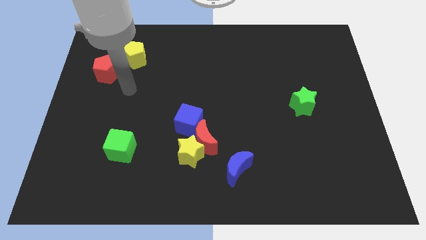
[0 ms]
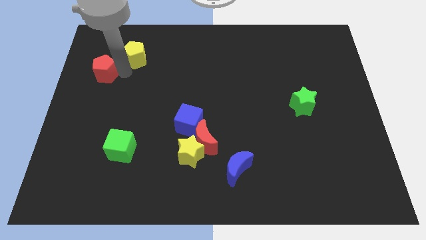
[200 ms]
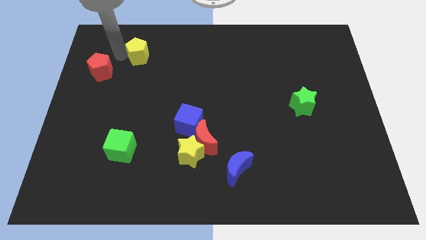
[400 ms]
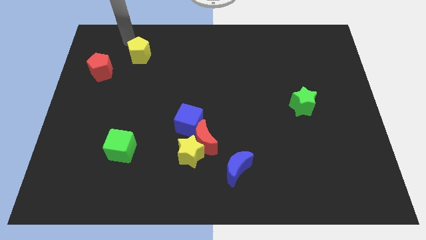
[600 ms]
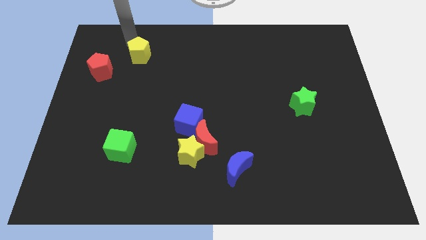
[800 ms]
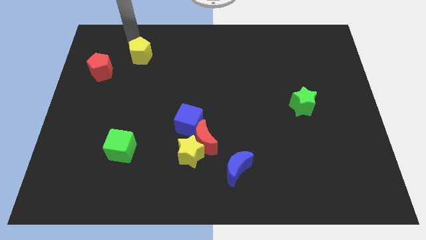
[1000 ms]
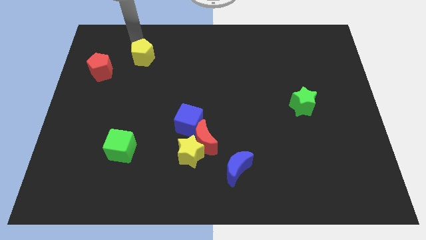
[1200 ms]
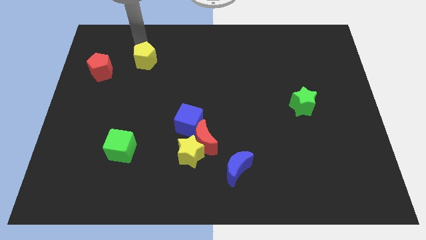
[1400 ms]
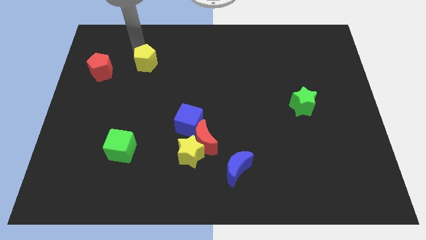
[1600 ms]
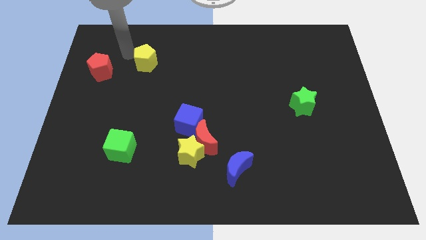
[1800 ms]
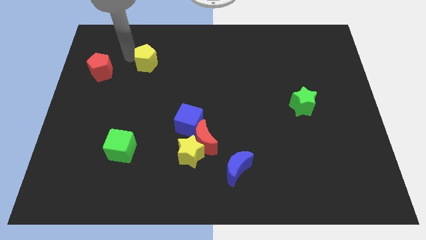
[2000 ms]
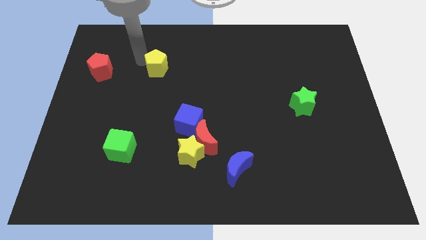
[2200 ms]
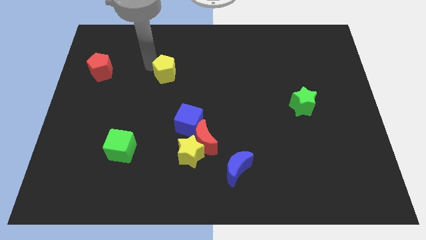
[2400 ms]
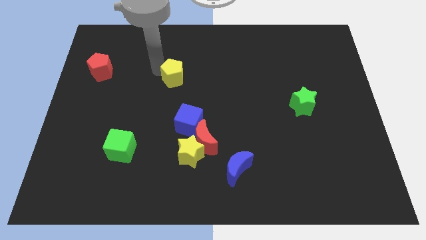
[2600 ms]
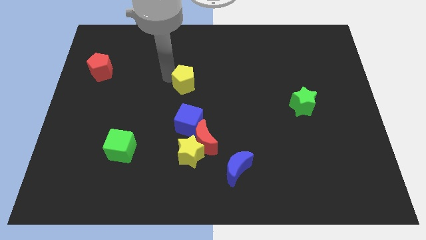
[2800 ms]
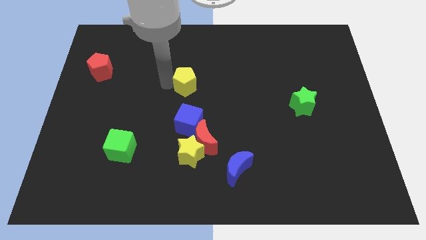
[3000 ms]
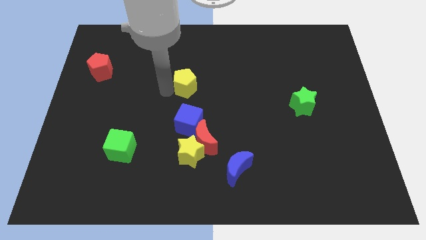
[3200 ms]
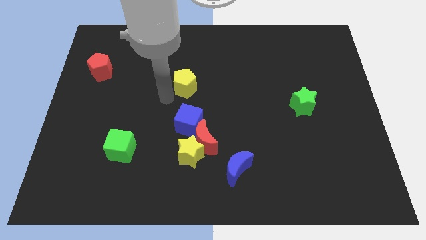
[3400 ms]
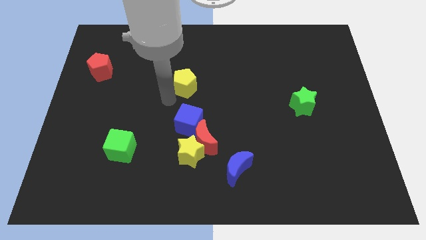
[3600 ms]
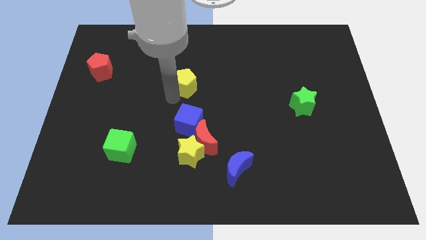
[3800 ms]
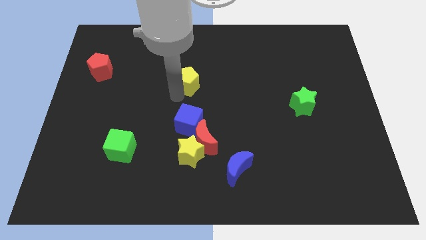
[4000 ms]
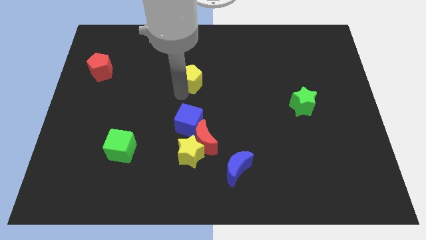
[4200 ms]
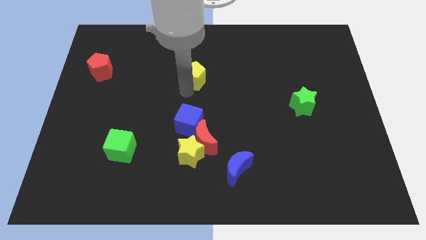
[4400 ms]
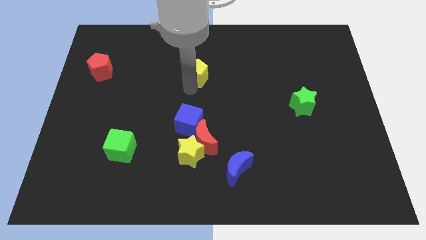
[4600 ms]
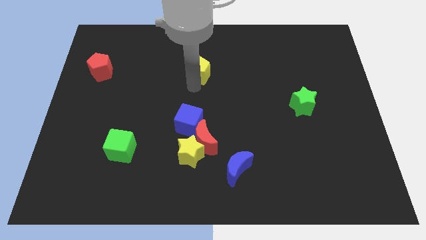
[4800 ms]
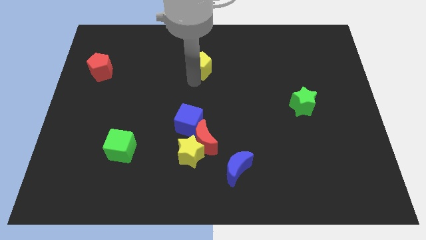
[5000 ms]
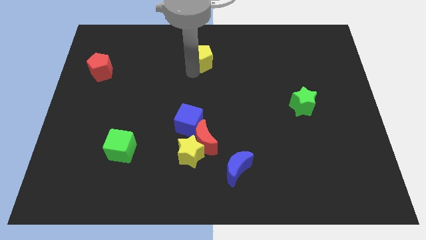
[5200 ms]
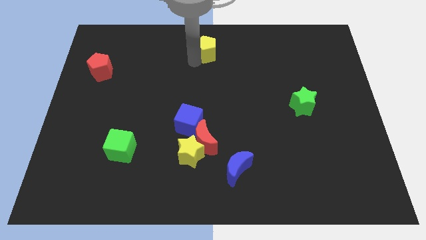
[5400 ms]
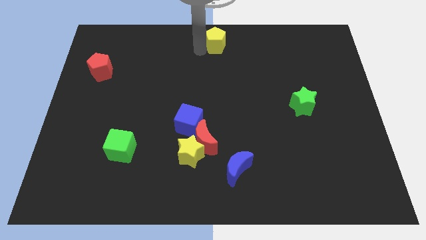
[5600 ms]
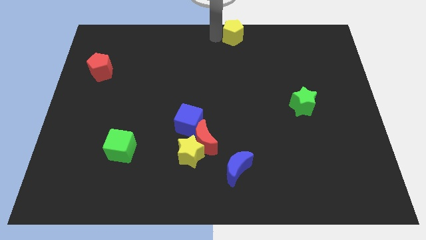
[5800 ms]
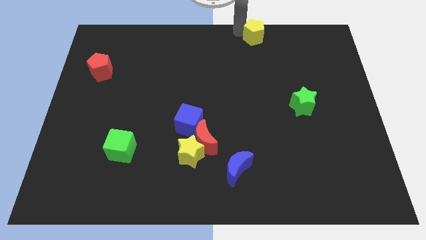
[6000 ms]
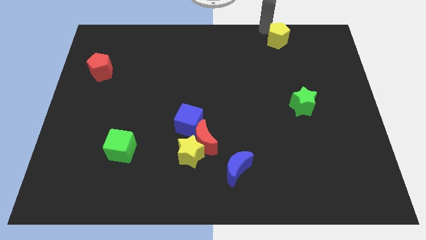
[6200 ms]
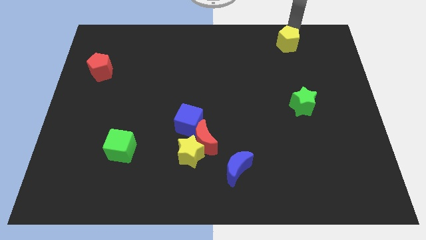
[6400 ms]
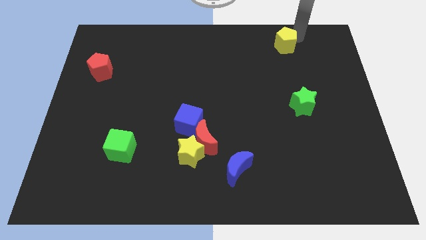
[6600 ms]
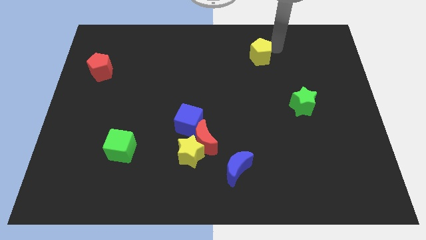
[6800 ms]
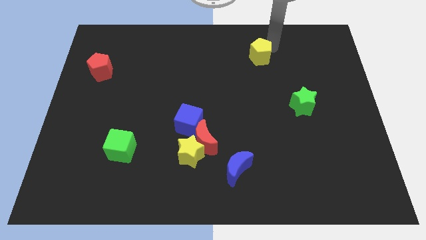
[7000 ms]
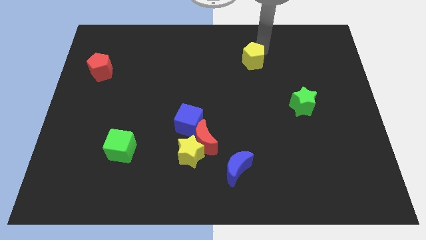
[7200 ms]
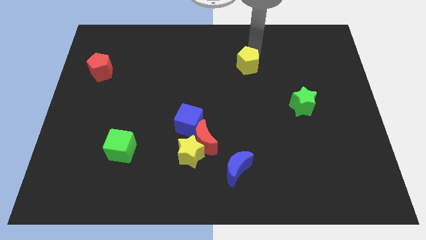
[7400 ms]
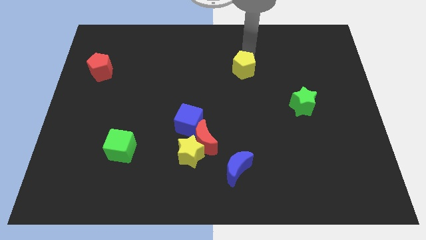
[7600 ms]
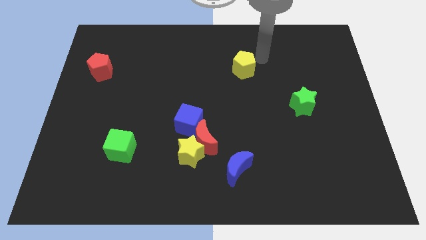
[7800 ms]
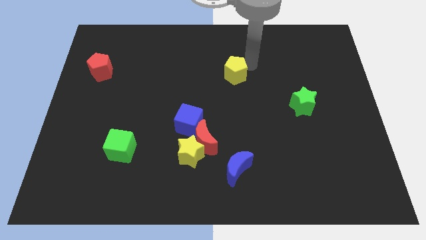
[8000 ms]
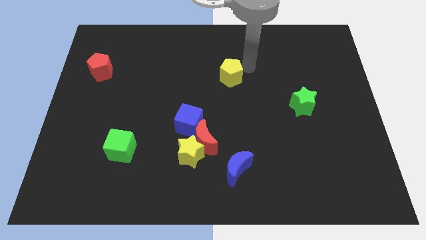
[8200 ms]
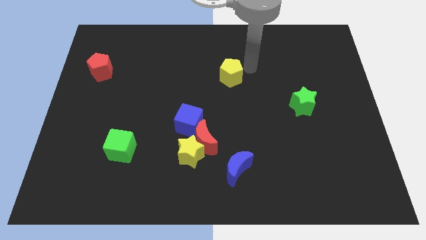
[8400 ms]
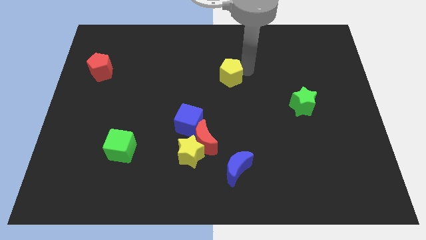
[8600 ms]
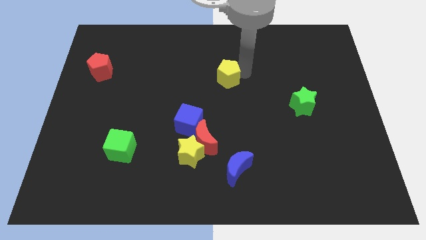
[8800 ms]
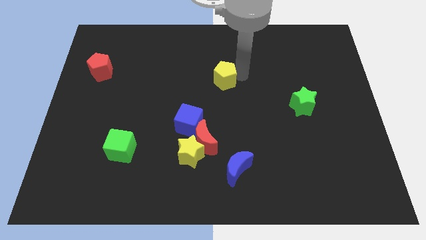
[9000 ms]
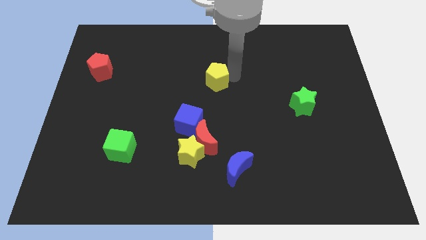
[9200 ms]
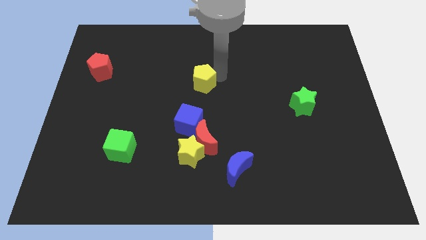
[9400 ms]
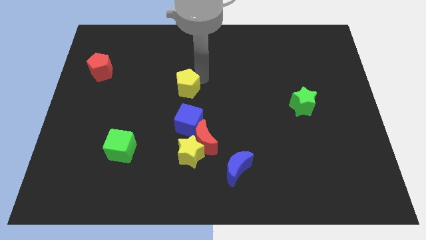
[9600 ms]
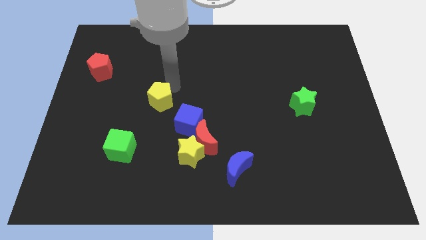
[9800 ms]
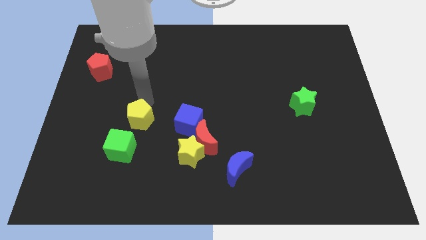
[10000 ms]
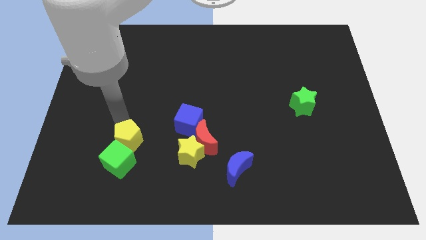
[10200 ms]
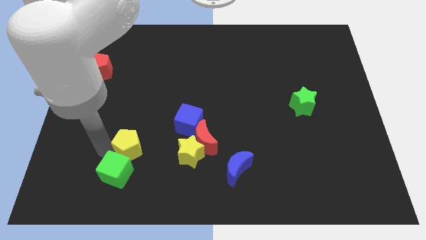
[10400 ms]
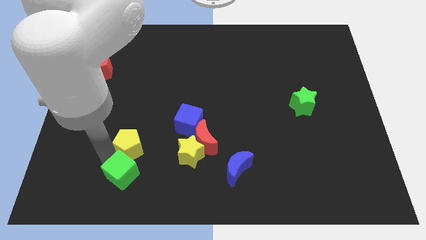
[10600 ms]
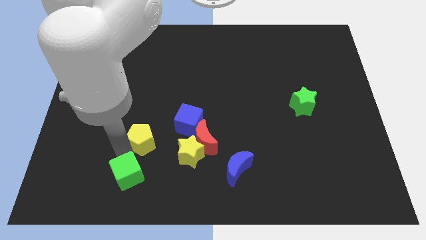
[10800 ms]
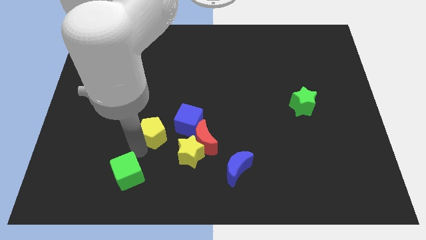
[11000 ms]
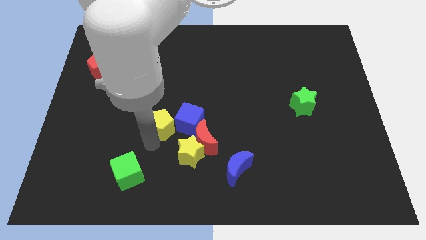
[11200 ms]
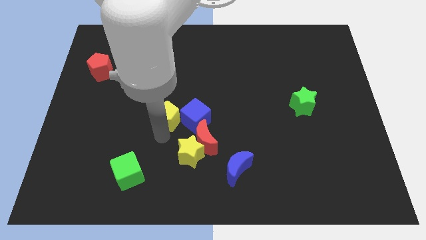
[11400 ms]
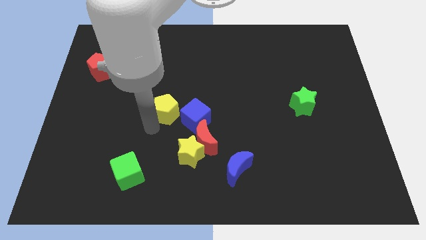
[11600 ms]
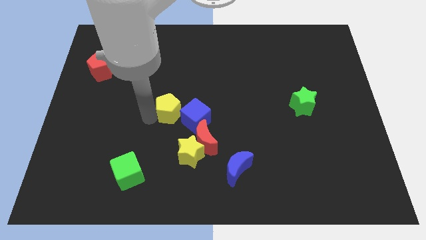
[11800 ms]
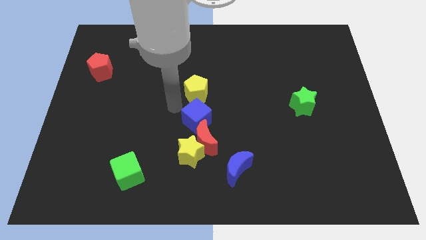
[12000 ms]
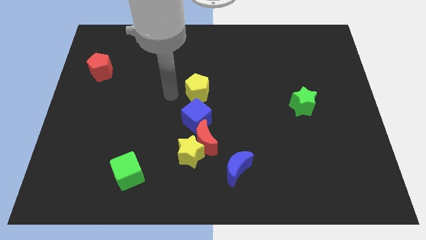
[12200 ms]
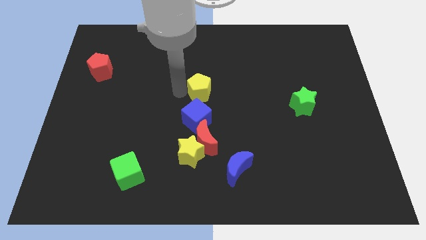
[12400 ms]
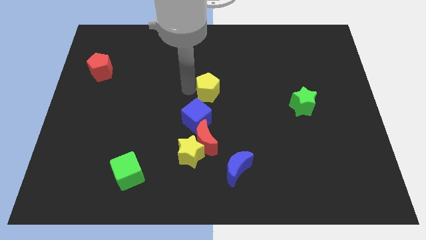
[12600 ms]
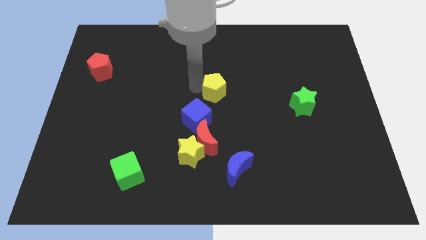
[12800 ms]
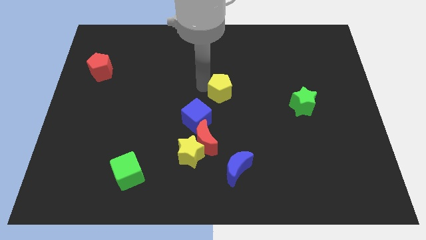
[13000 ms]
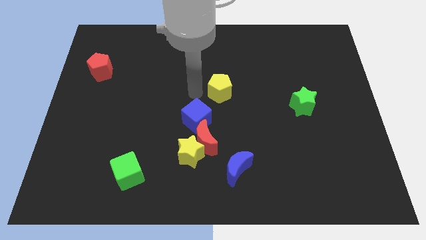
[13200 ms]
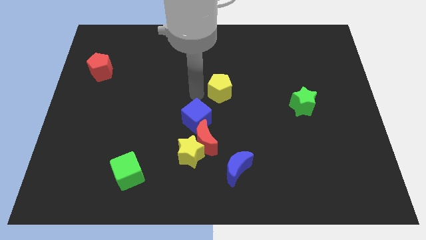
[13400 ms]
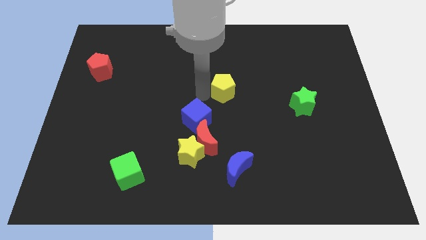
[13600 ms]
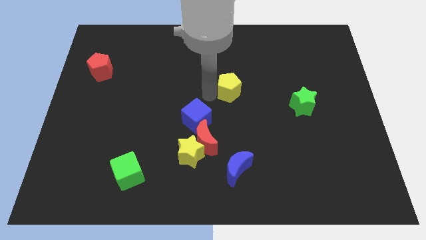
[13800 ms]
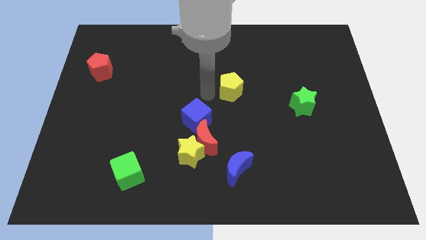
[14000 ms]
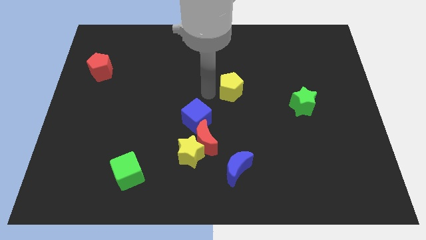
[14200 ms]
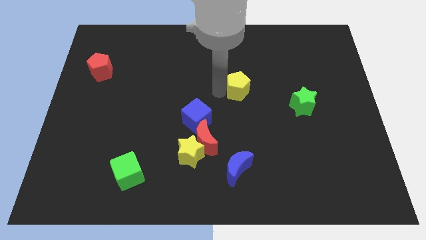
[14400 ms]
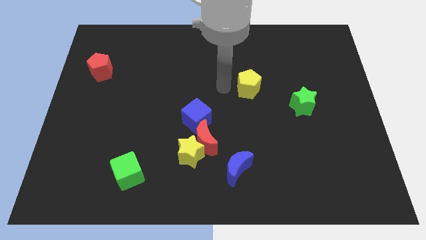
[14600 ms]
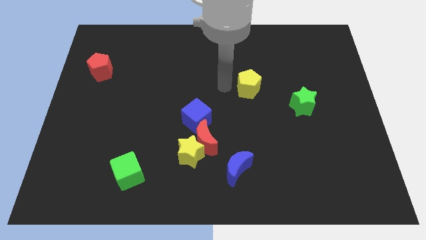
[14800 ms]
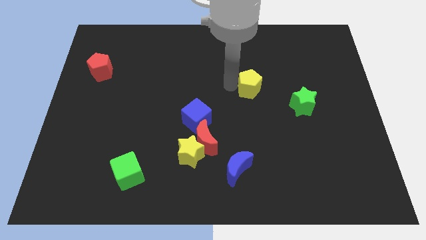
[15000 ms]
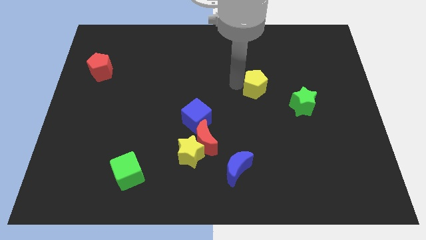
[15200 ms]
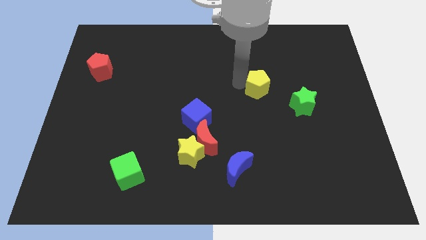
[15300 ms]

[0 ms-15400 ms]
put the yellow pentagon to the top left of the green star
